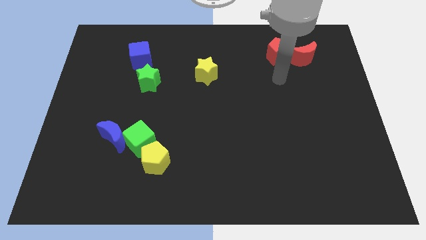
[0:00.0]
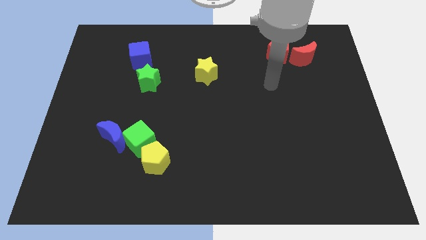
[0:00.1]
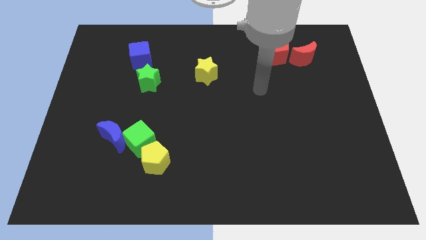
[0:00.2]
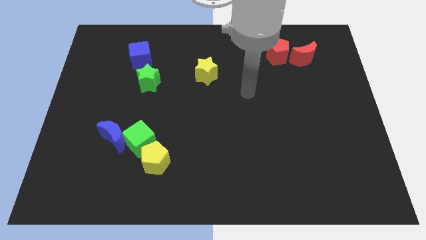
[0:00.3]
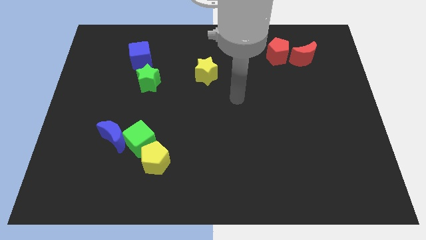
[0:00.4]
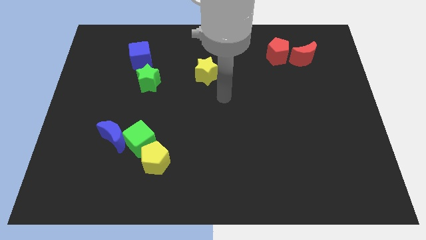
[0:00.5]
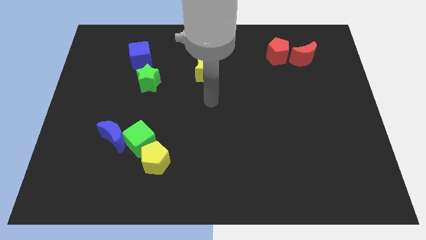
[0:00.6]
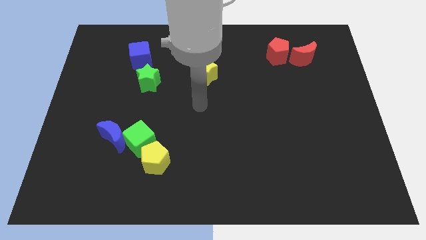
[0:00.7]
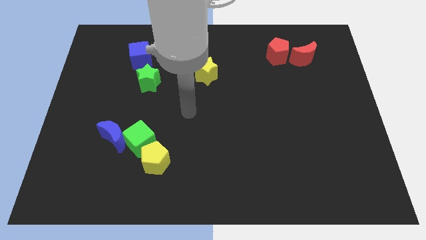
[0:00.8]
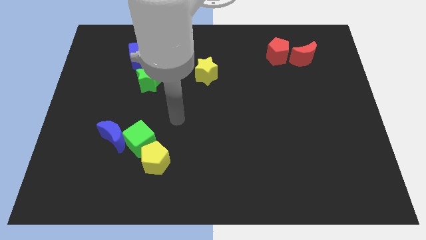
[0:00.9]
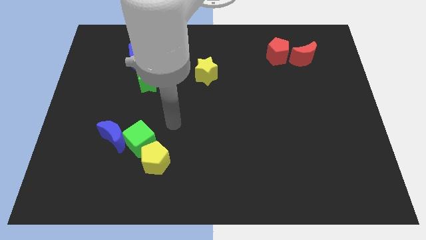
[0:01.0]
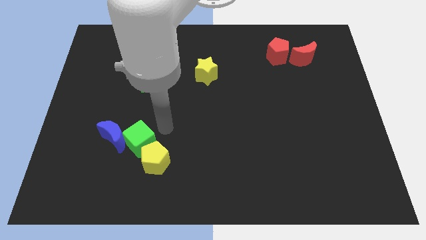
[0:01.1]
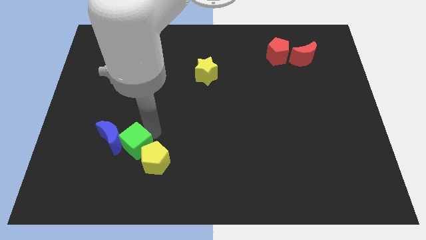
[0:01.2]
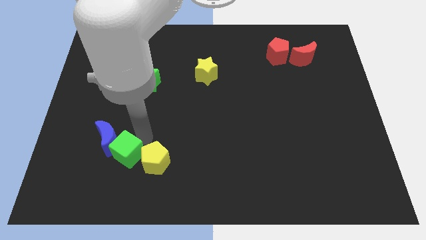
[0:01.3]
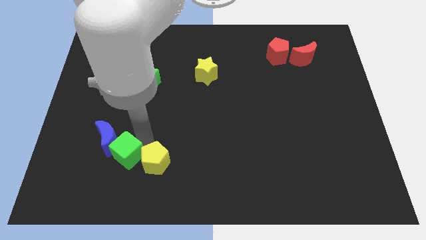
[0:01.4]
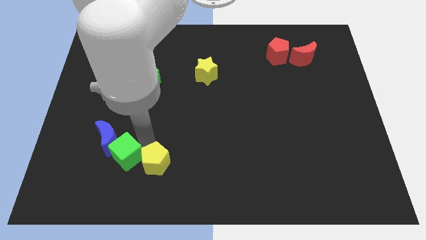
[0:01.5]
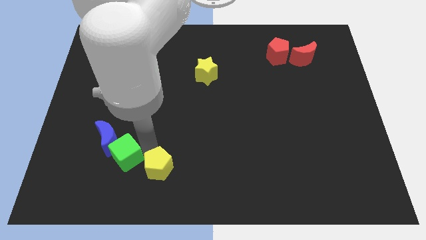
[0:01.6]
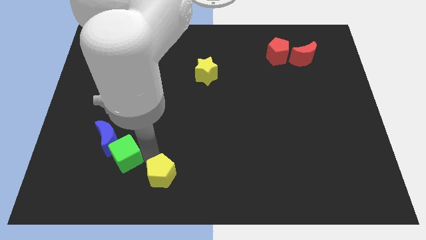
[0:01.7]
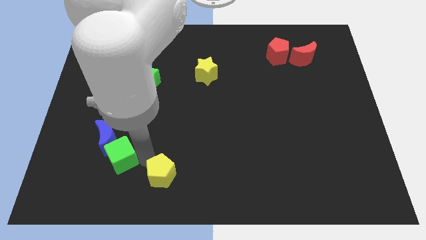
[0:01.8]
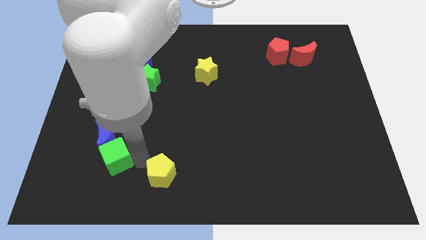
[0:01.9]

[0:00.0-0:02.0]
move the yellow pentagon away from the green cube

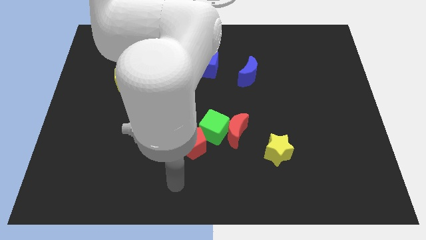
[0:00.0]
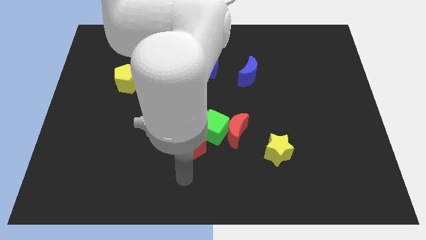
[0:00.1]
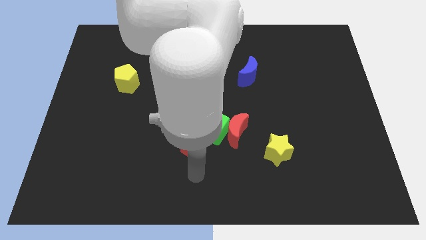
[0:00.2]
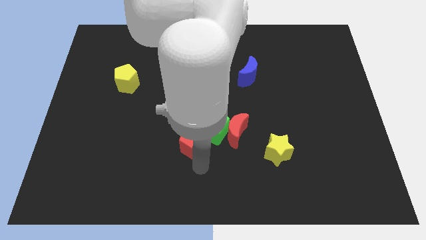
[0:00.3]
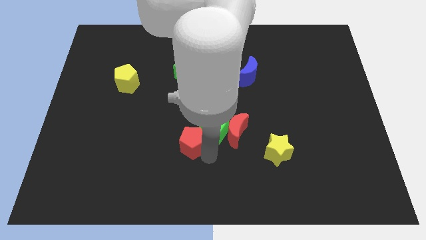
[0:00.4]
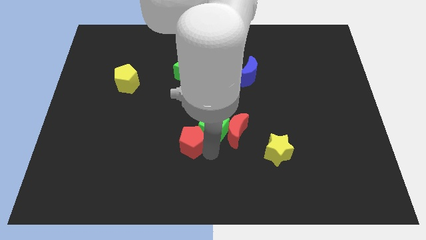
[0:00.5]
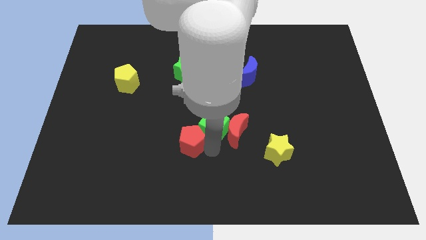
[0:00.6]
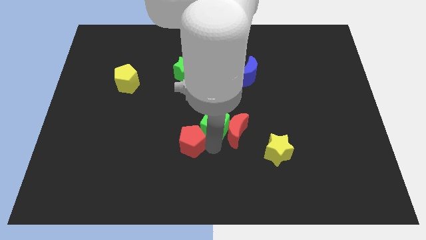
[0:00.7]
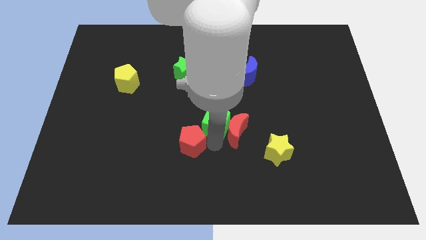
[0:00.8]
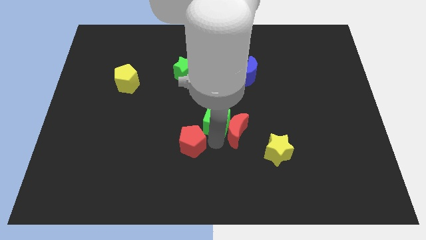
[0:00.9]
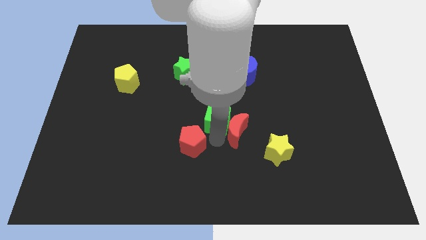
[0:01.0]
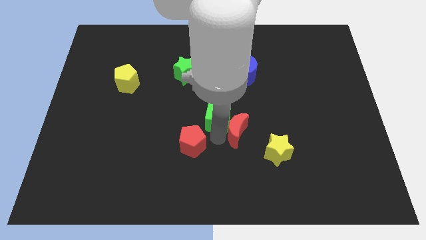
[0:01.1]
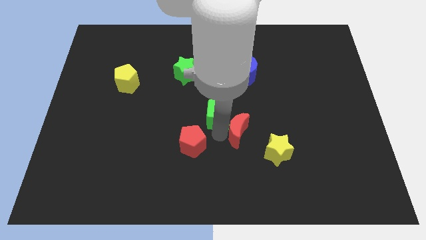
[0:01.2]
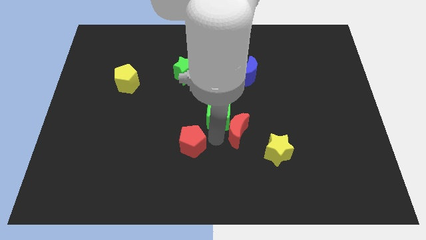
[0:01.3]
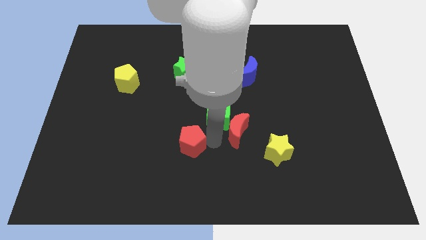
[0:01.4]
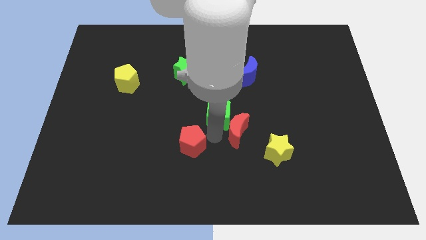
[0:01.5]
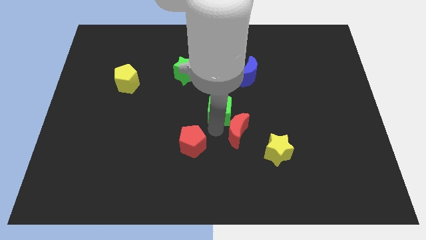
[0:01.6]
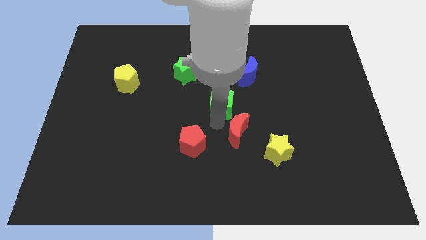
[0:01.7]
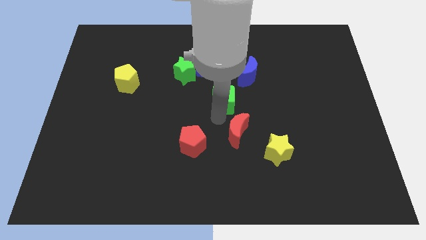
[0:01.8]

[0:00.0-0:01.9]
move the green cube away from the red moon and red pentagon

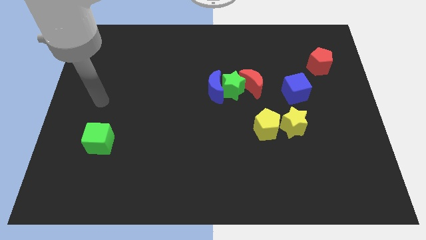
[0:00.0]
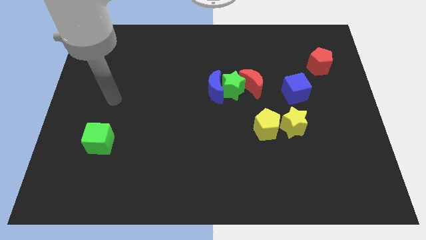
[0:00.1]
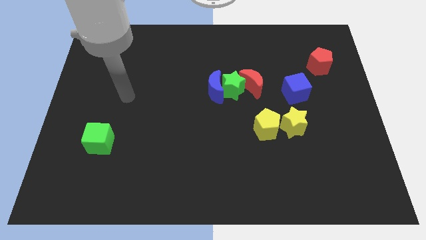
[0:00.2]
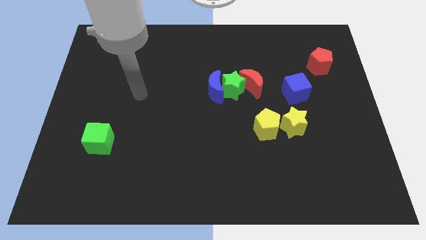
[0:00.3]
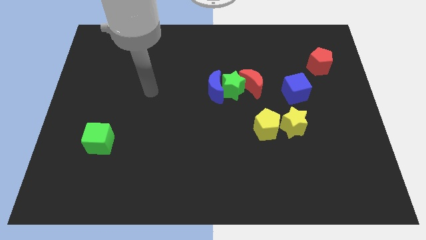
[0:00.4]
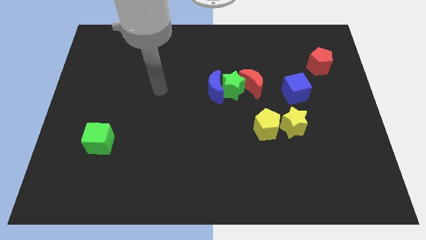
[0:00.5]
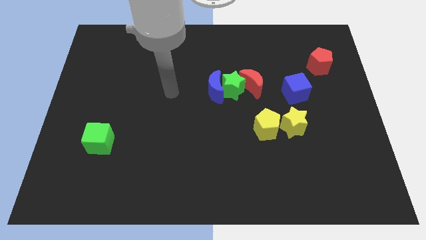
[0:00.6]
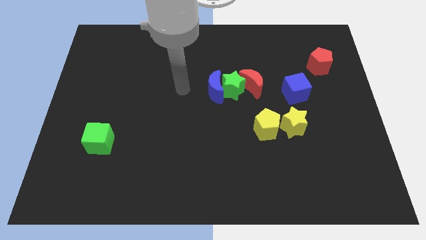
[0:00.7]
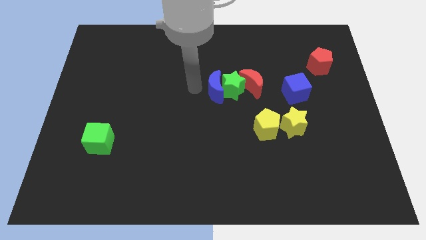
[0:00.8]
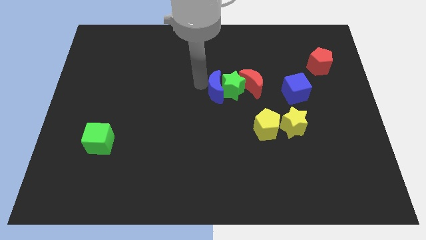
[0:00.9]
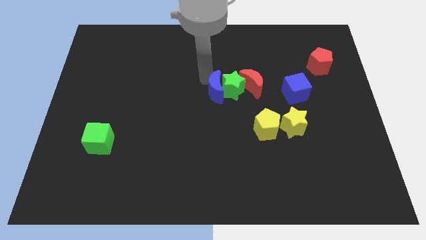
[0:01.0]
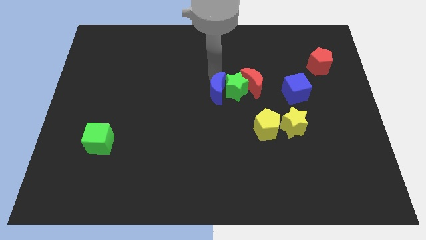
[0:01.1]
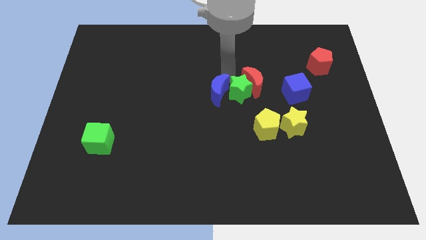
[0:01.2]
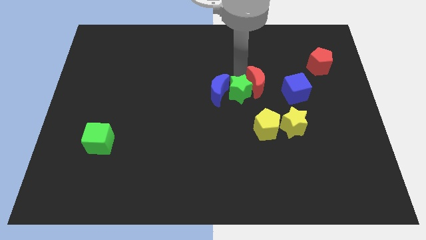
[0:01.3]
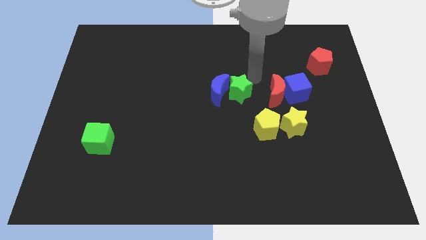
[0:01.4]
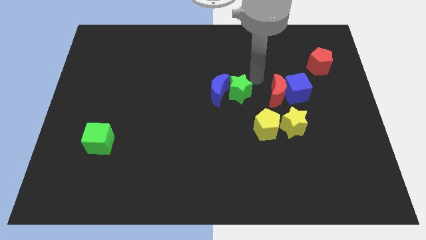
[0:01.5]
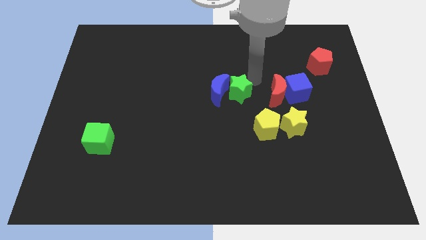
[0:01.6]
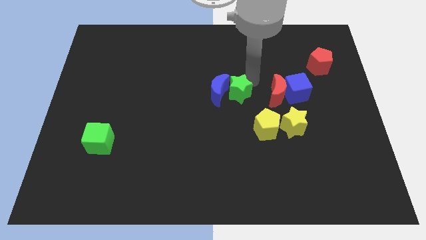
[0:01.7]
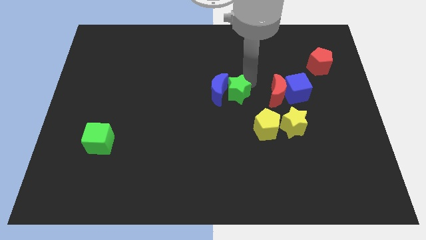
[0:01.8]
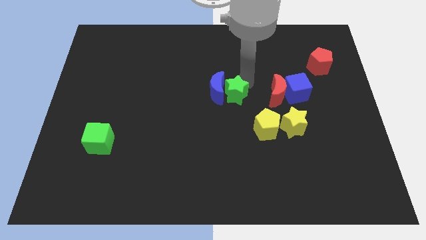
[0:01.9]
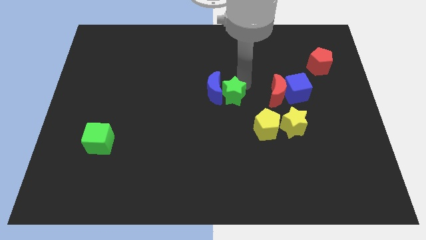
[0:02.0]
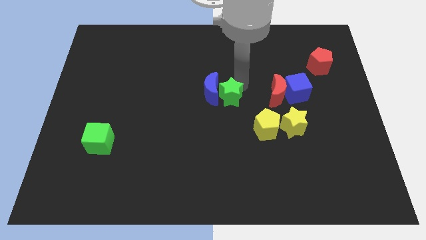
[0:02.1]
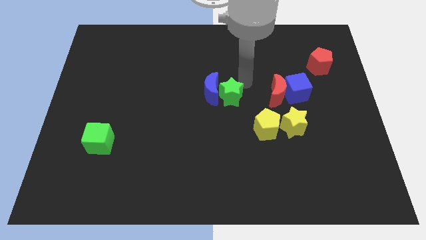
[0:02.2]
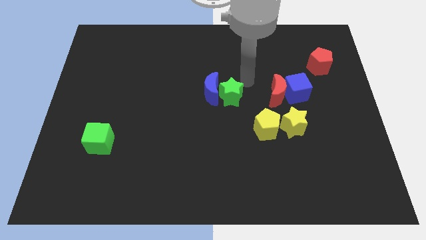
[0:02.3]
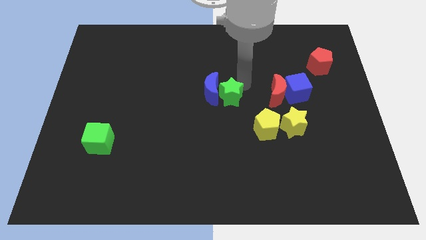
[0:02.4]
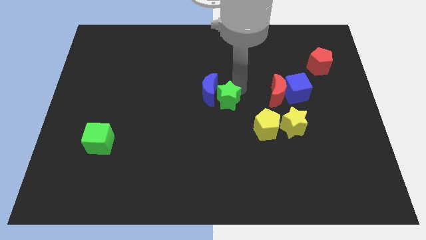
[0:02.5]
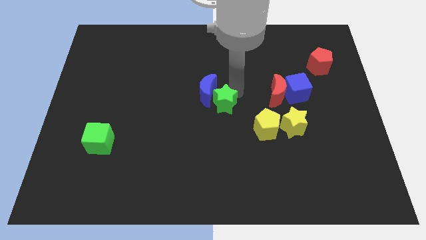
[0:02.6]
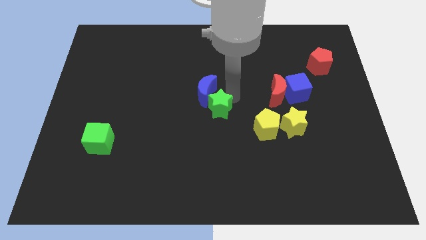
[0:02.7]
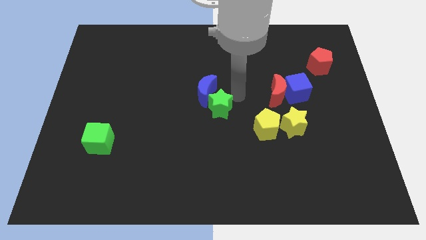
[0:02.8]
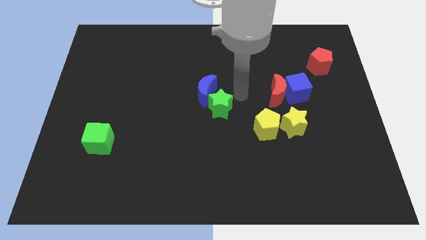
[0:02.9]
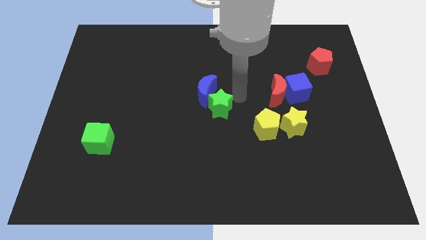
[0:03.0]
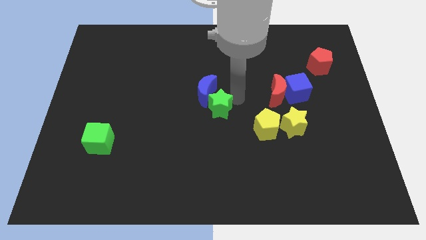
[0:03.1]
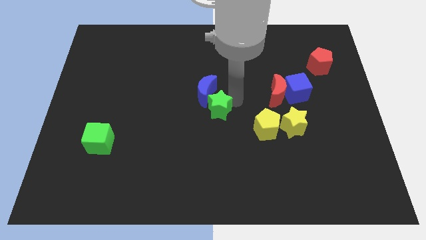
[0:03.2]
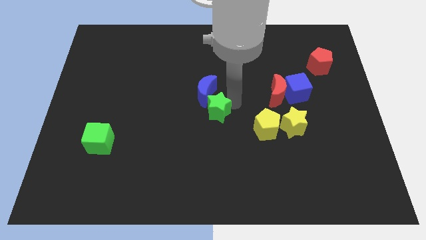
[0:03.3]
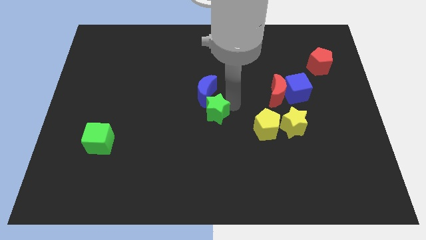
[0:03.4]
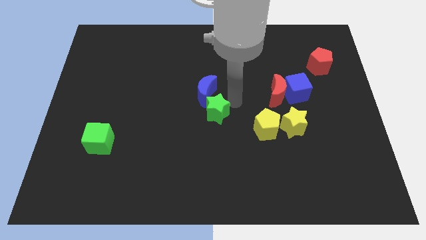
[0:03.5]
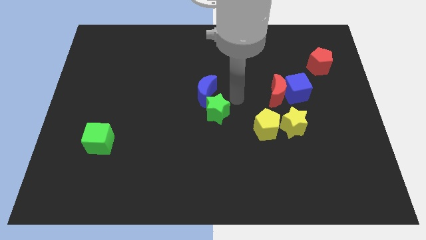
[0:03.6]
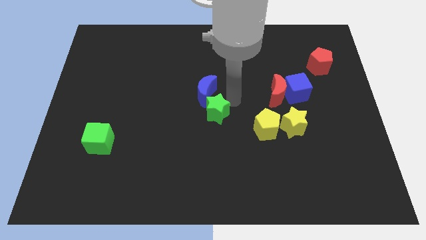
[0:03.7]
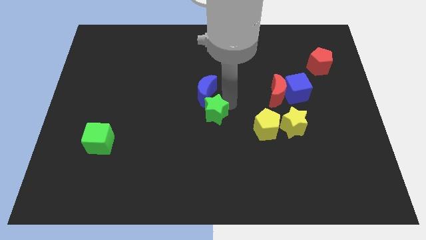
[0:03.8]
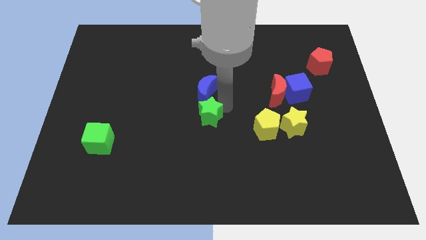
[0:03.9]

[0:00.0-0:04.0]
separate the green star from the blue moon and red moon

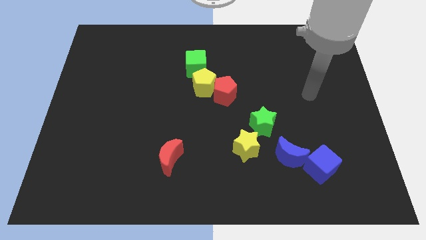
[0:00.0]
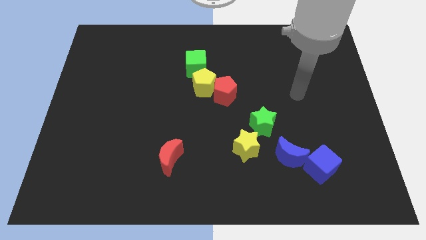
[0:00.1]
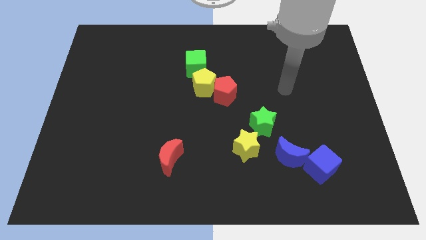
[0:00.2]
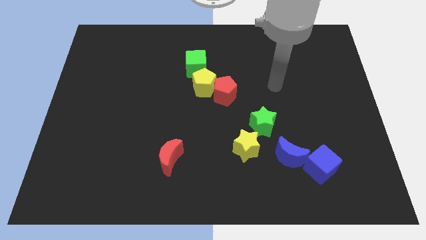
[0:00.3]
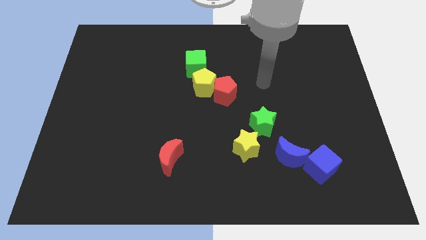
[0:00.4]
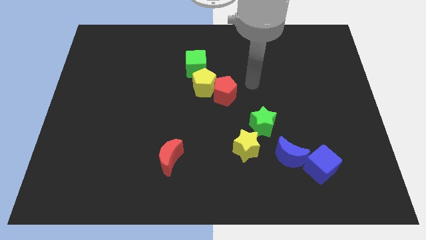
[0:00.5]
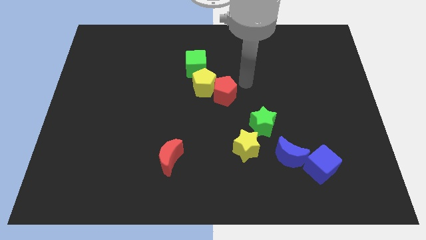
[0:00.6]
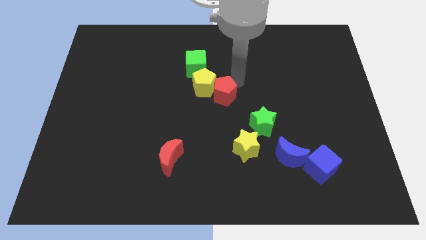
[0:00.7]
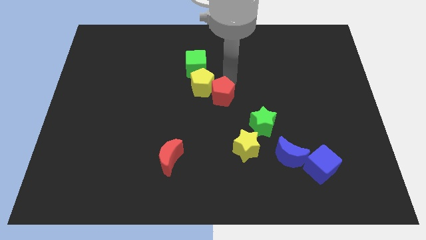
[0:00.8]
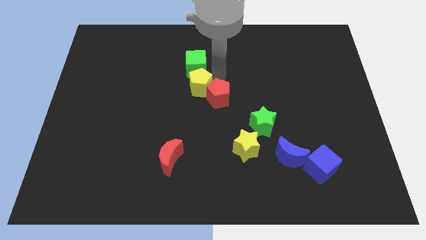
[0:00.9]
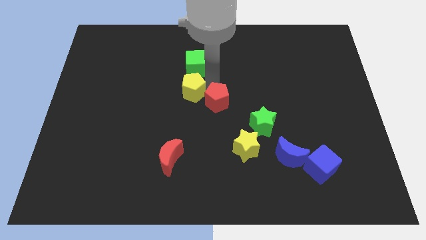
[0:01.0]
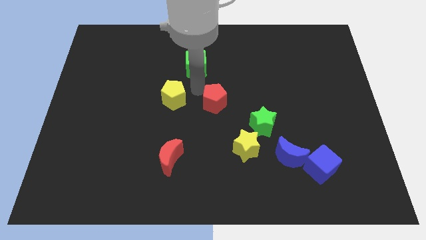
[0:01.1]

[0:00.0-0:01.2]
separate the red pentagon from the yellow pentagon

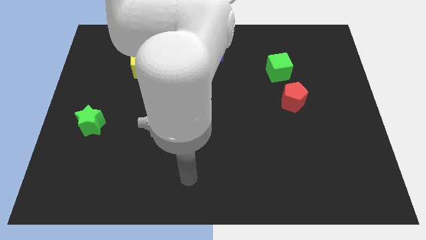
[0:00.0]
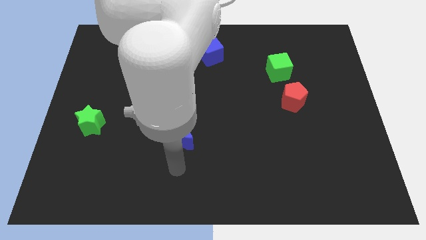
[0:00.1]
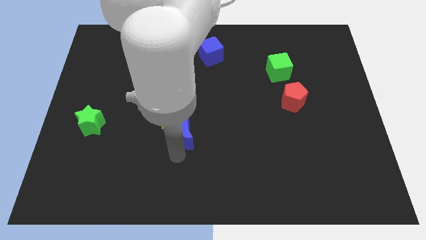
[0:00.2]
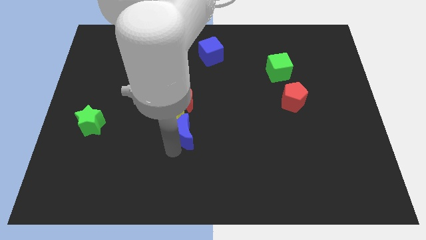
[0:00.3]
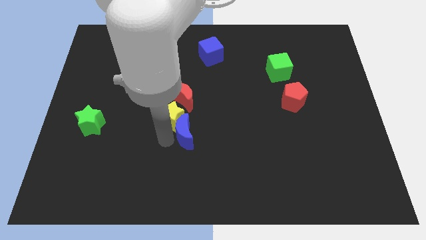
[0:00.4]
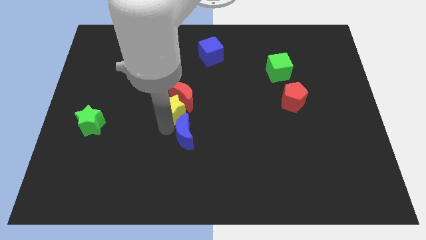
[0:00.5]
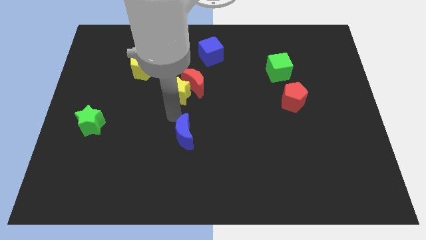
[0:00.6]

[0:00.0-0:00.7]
pull the blue moon apart from the yellow star
